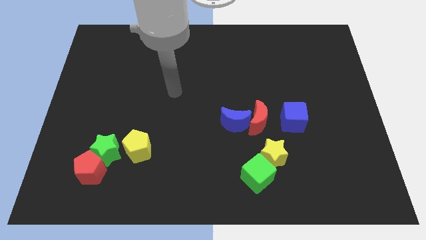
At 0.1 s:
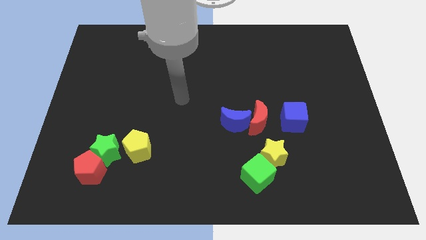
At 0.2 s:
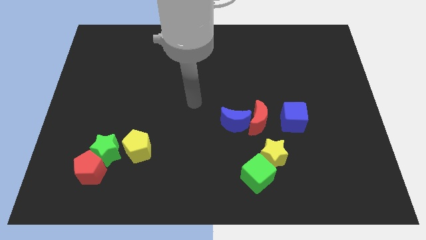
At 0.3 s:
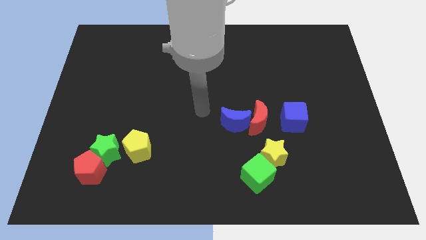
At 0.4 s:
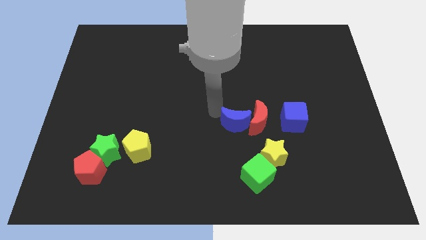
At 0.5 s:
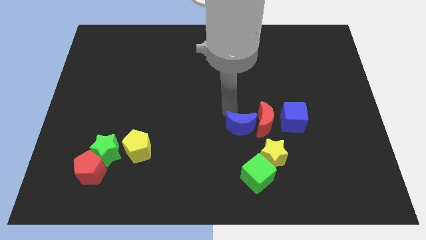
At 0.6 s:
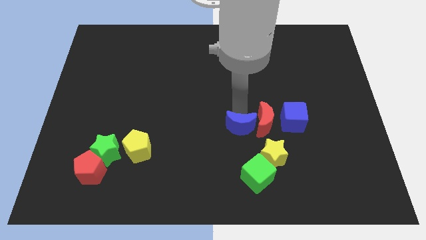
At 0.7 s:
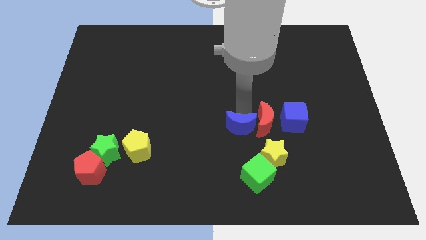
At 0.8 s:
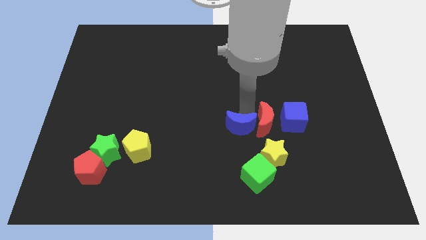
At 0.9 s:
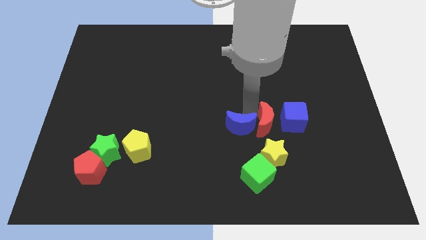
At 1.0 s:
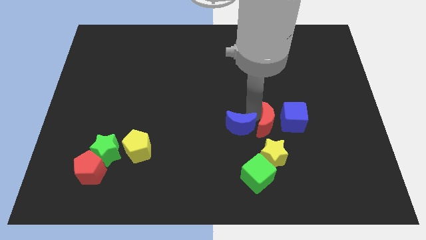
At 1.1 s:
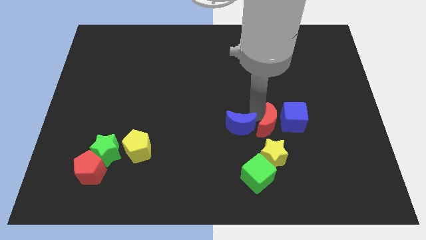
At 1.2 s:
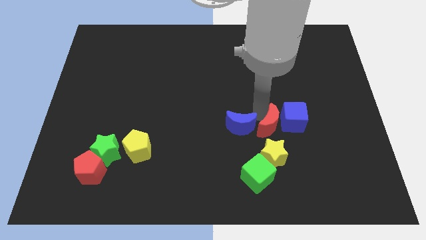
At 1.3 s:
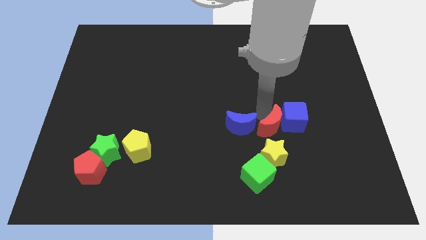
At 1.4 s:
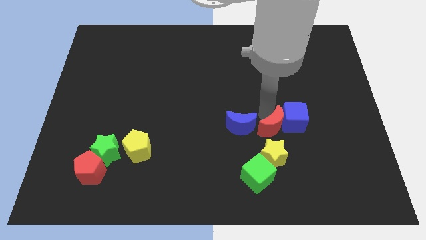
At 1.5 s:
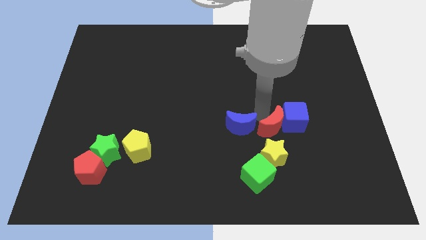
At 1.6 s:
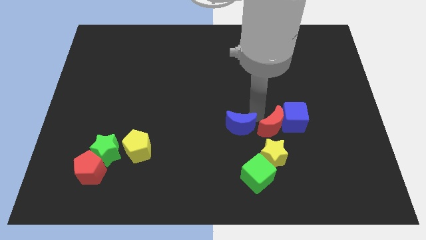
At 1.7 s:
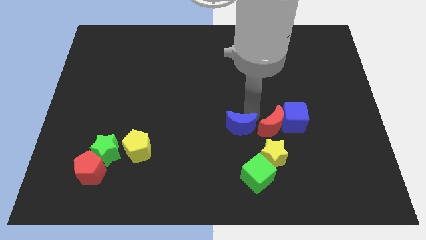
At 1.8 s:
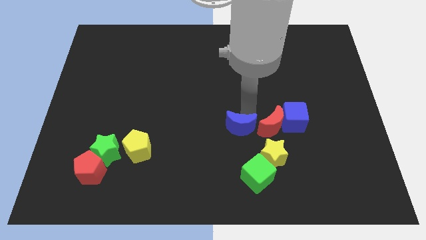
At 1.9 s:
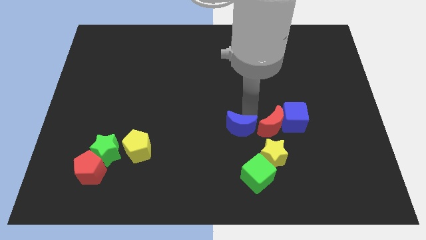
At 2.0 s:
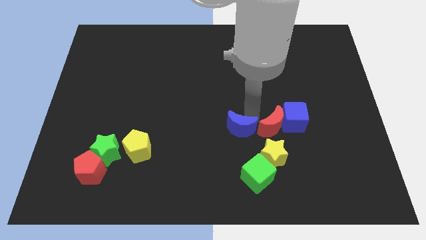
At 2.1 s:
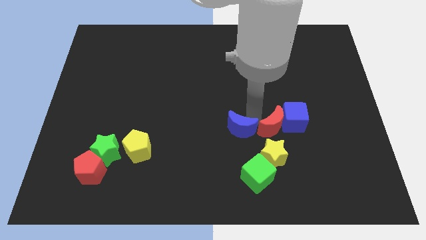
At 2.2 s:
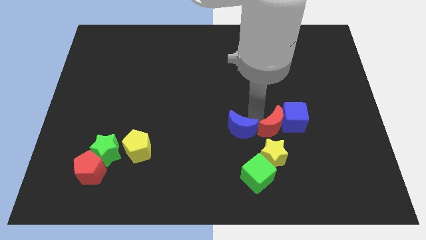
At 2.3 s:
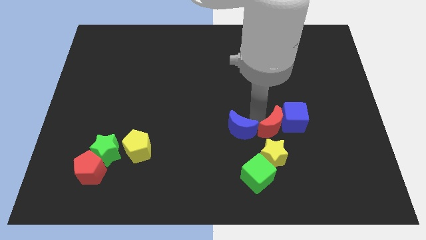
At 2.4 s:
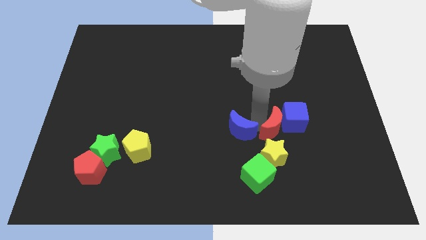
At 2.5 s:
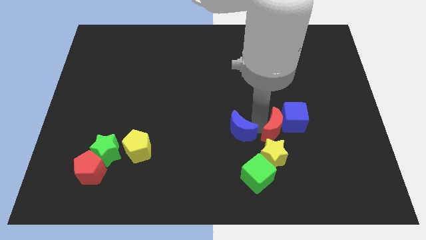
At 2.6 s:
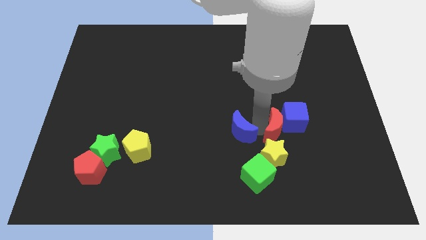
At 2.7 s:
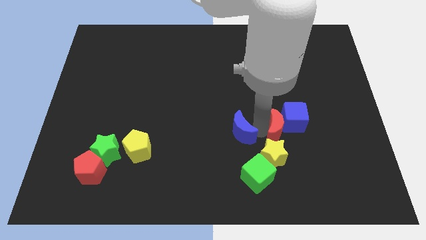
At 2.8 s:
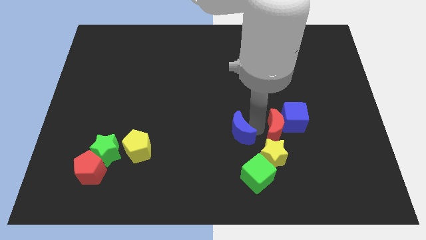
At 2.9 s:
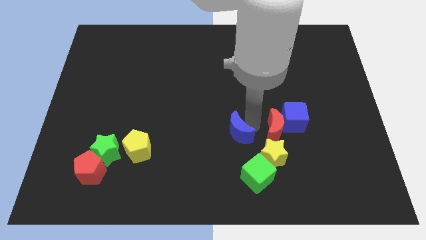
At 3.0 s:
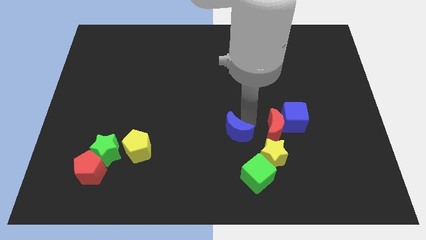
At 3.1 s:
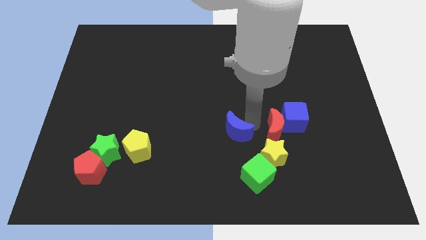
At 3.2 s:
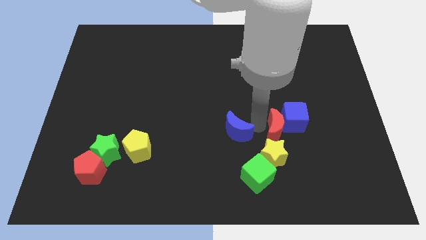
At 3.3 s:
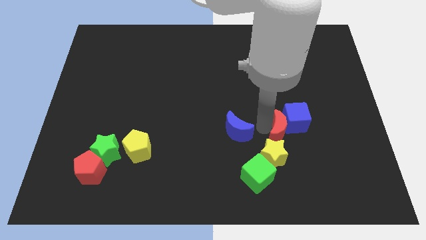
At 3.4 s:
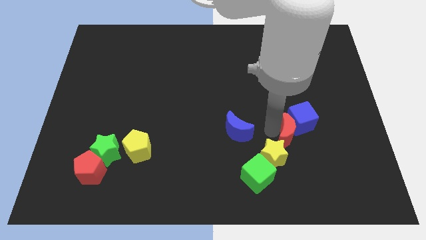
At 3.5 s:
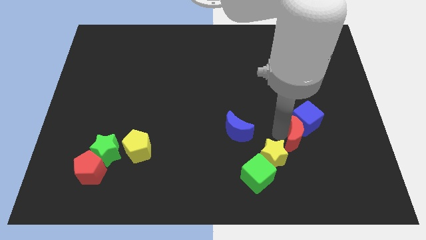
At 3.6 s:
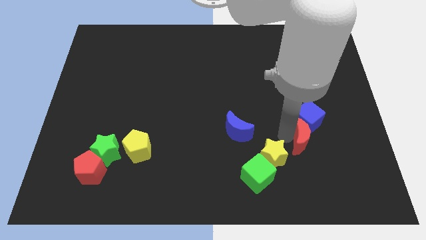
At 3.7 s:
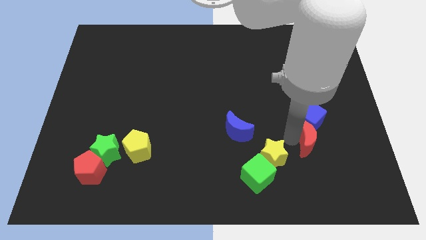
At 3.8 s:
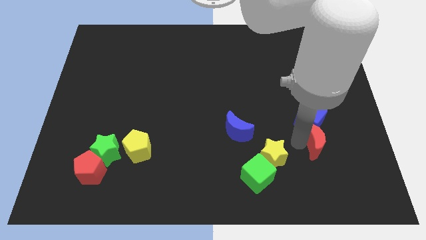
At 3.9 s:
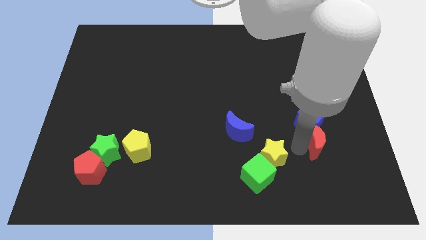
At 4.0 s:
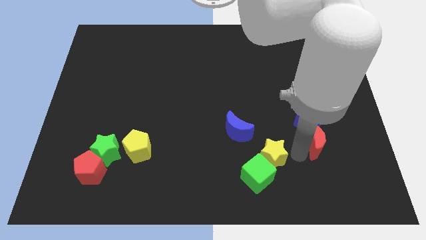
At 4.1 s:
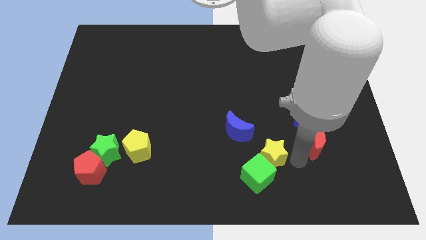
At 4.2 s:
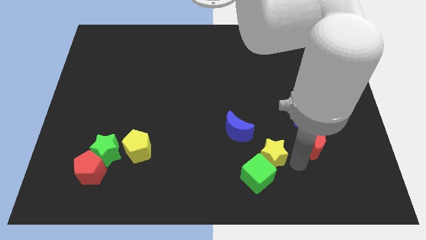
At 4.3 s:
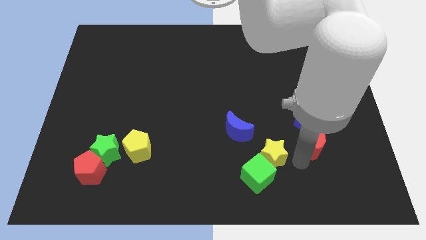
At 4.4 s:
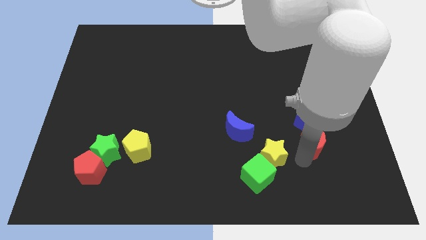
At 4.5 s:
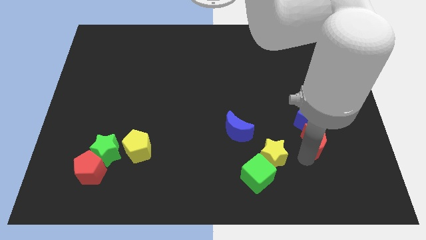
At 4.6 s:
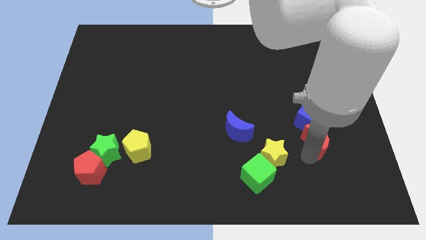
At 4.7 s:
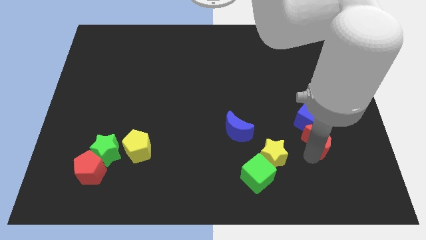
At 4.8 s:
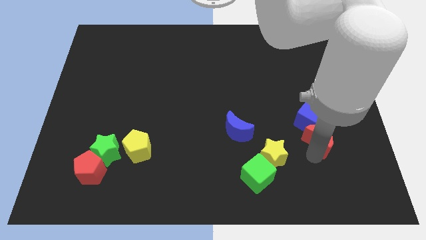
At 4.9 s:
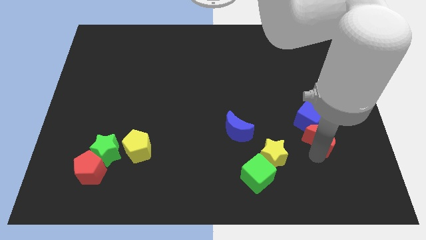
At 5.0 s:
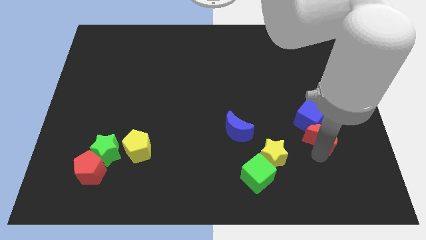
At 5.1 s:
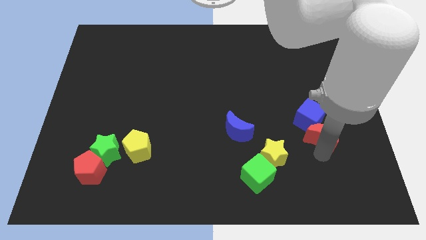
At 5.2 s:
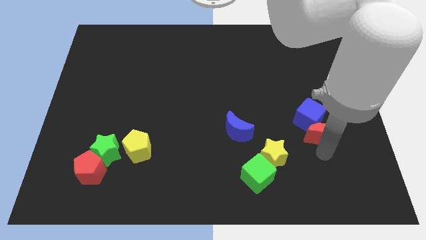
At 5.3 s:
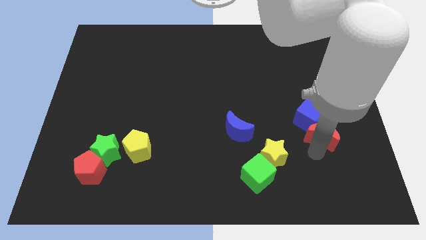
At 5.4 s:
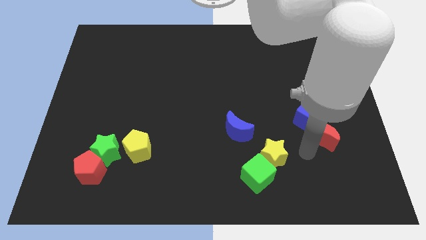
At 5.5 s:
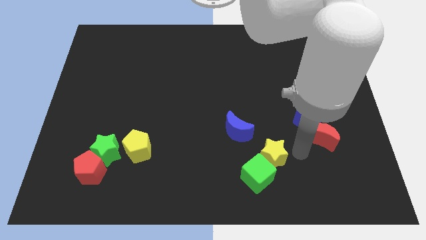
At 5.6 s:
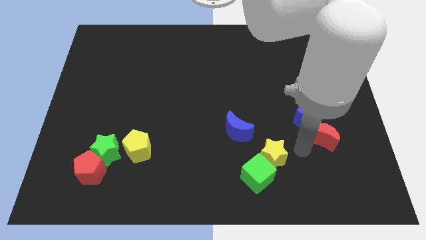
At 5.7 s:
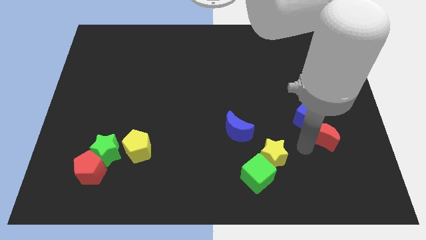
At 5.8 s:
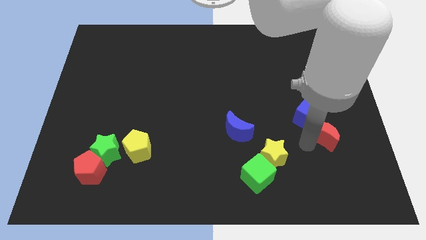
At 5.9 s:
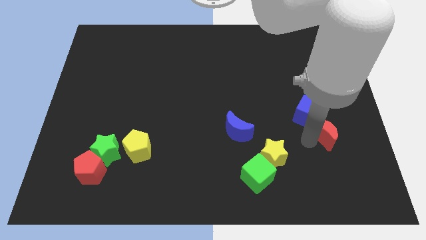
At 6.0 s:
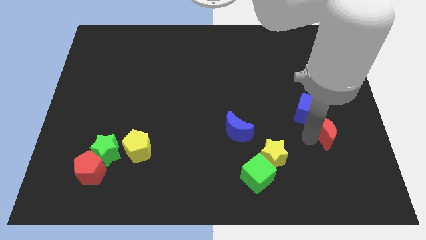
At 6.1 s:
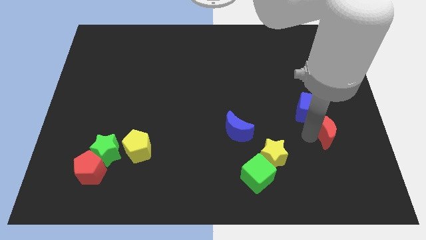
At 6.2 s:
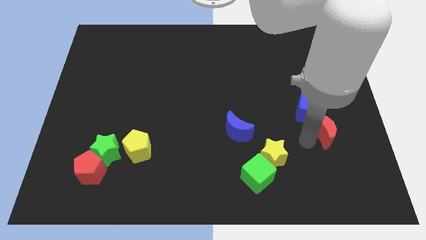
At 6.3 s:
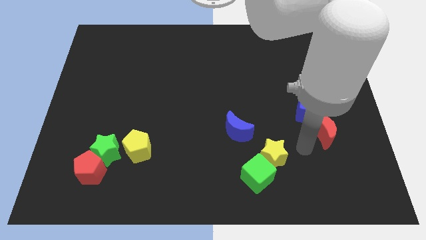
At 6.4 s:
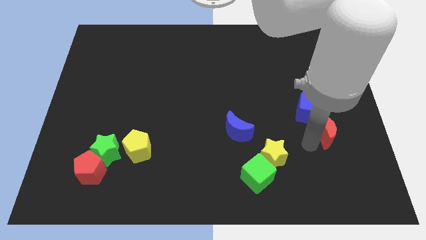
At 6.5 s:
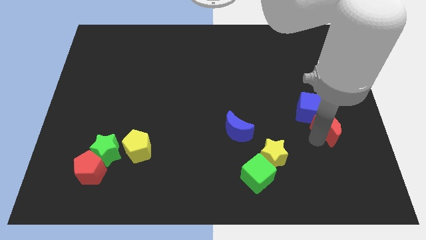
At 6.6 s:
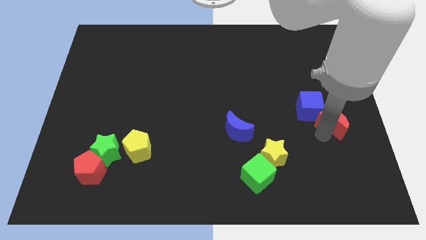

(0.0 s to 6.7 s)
slide the red moon right of the blue cube
